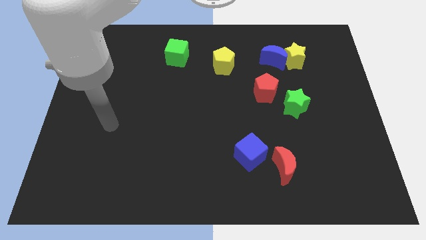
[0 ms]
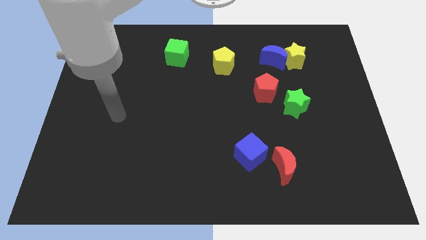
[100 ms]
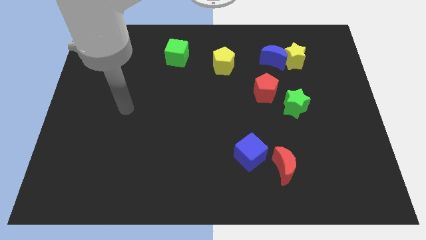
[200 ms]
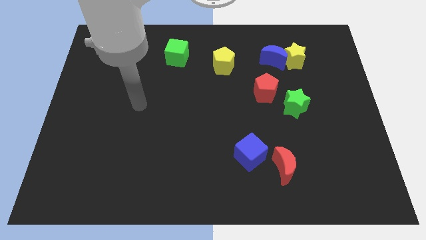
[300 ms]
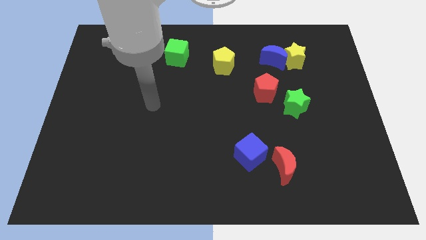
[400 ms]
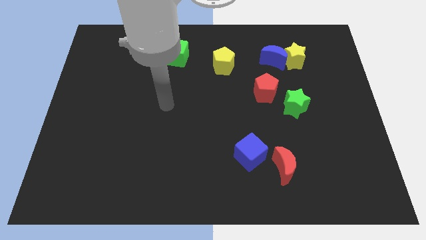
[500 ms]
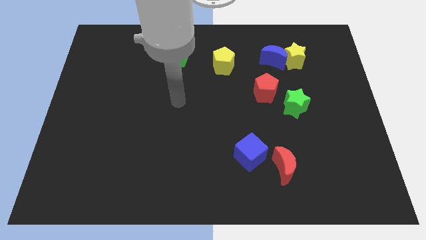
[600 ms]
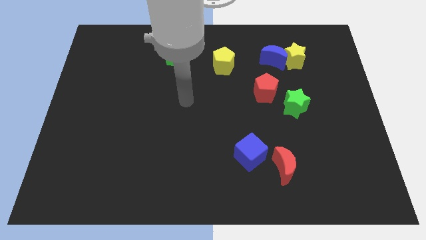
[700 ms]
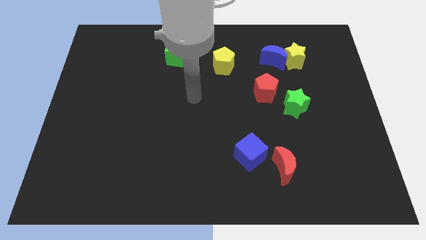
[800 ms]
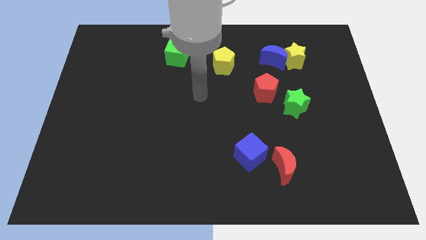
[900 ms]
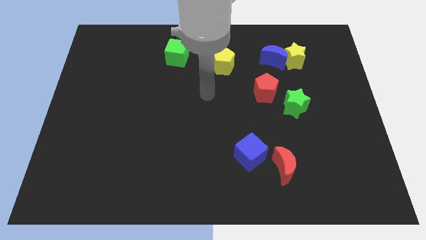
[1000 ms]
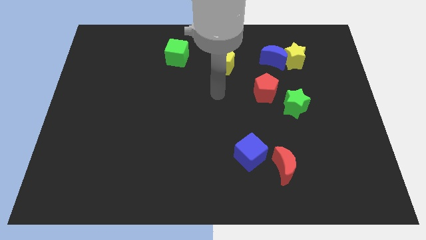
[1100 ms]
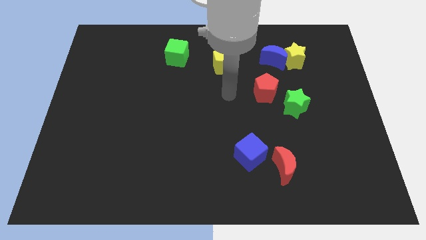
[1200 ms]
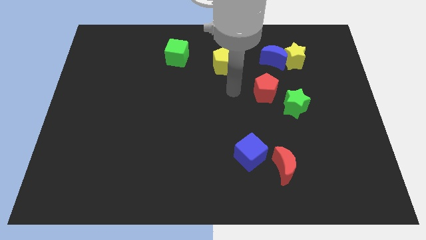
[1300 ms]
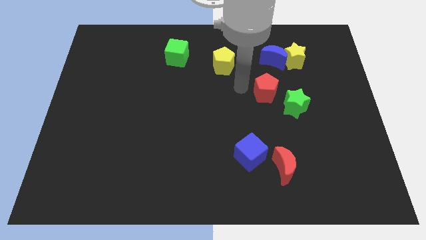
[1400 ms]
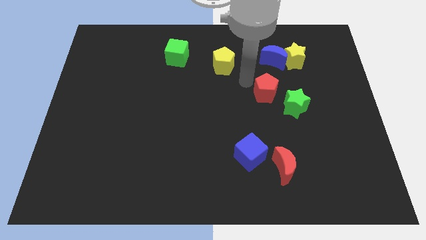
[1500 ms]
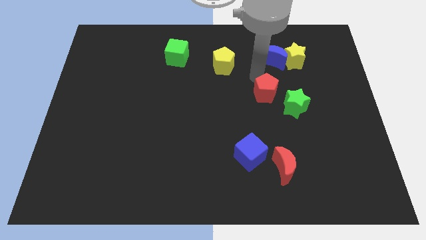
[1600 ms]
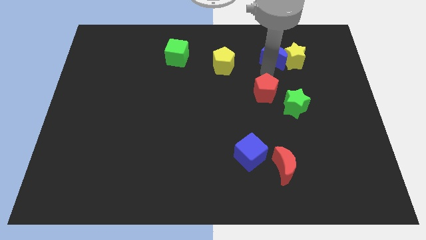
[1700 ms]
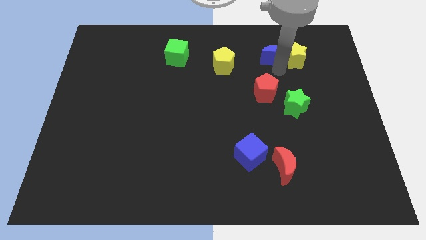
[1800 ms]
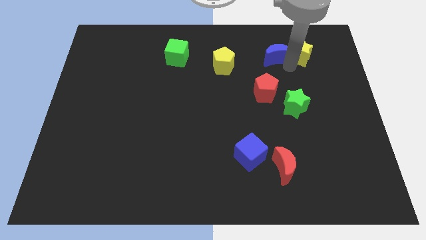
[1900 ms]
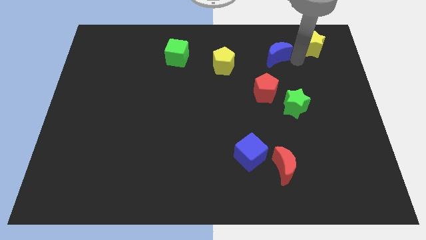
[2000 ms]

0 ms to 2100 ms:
pull the blue moon apart from the yellow star

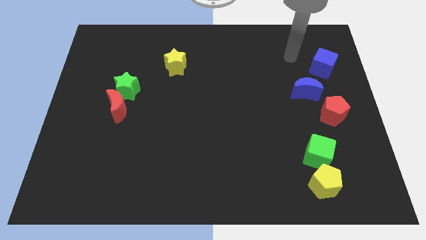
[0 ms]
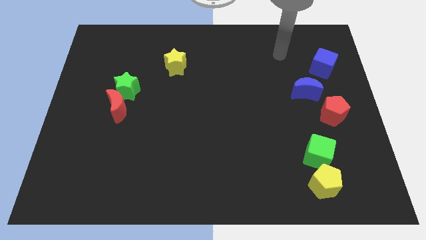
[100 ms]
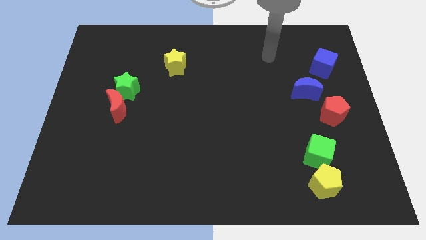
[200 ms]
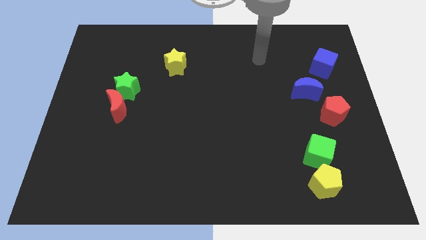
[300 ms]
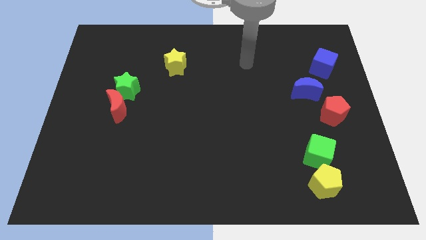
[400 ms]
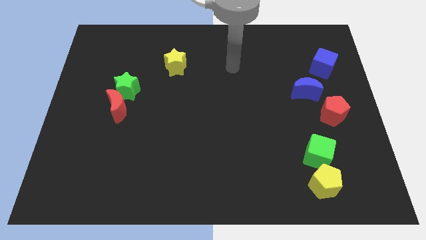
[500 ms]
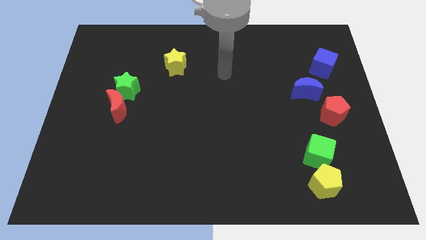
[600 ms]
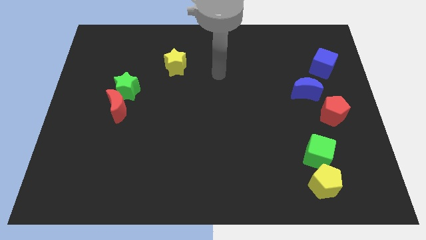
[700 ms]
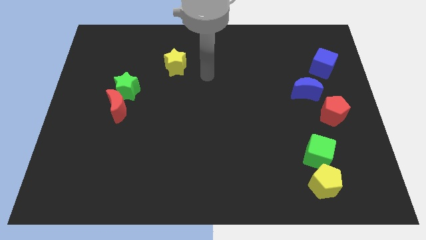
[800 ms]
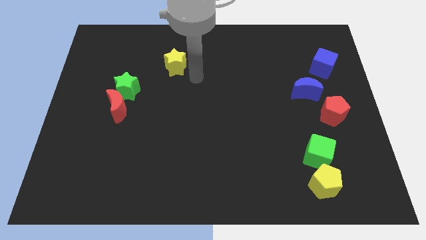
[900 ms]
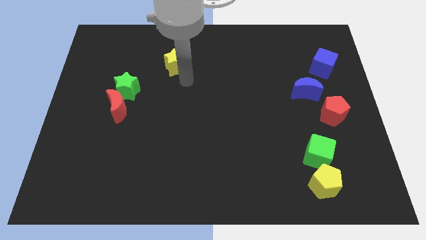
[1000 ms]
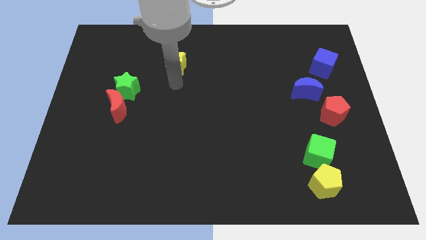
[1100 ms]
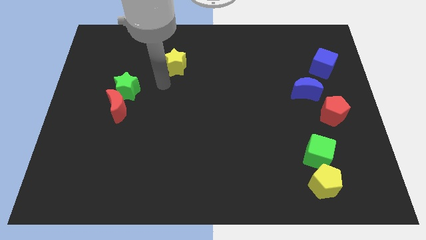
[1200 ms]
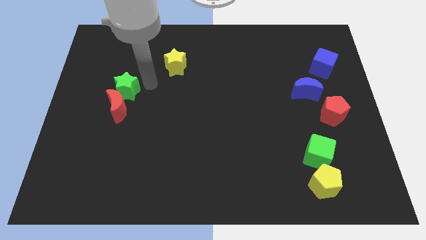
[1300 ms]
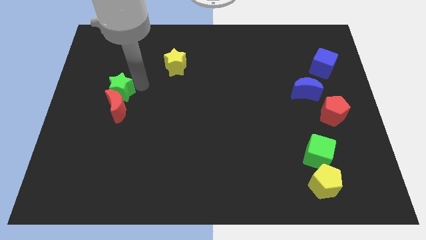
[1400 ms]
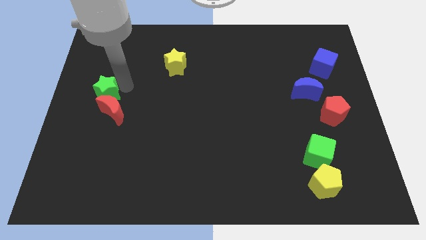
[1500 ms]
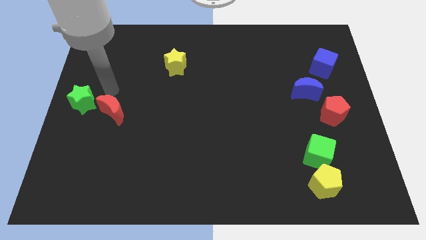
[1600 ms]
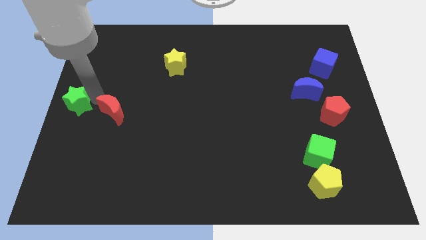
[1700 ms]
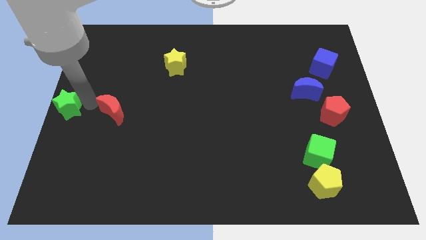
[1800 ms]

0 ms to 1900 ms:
move the red moon away from the green star

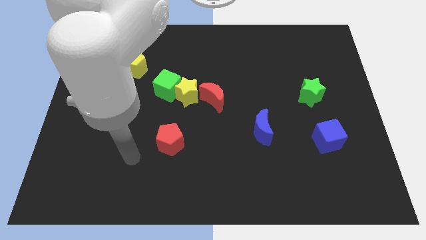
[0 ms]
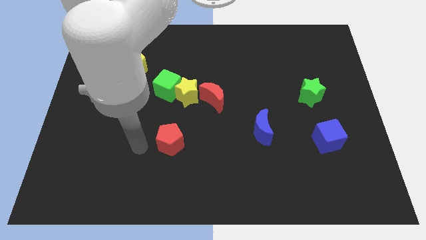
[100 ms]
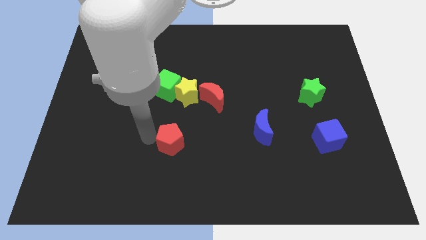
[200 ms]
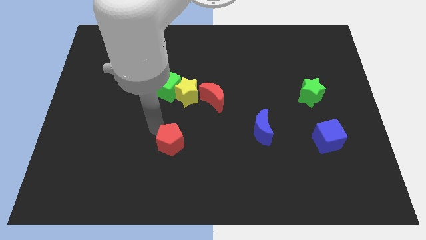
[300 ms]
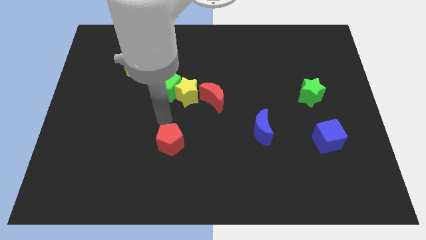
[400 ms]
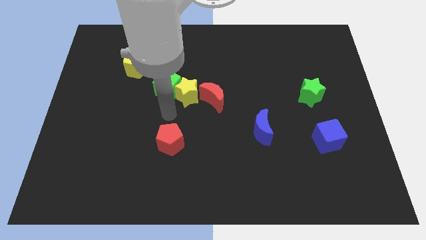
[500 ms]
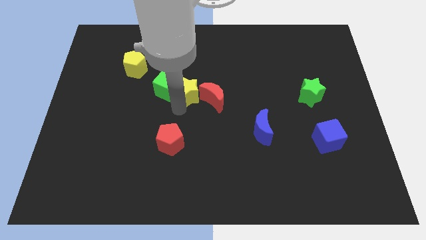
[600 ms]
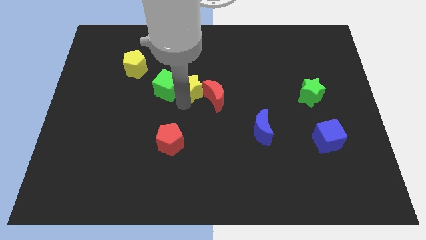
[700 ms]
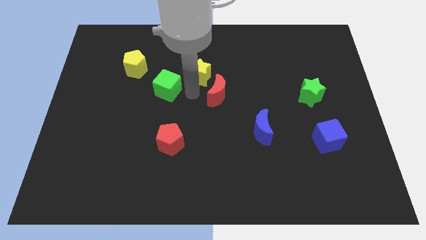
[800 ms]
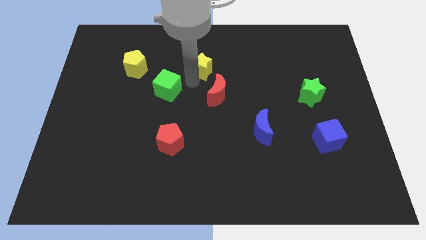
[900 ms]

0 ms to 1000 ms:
pull the green cube apart from the yellow star

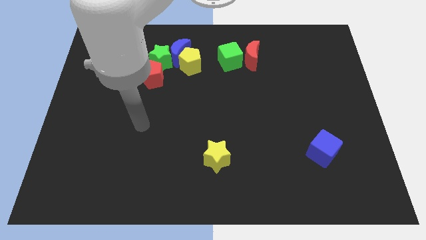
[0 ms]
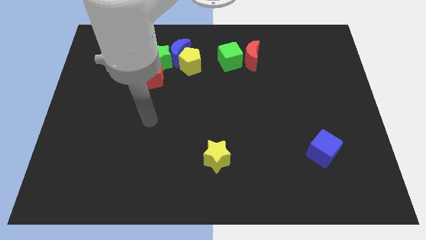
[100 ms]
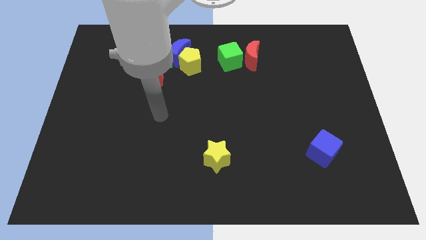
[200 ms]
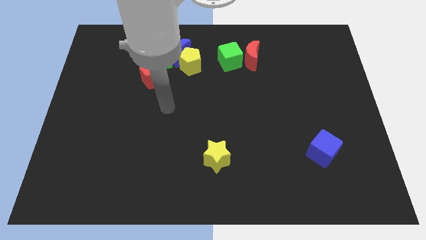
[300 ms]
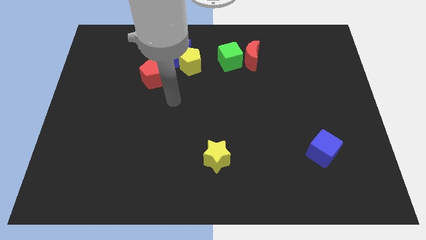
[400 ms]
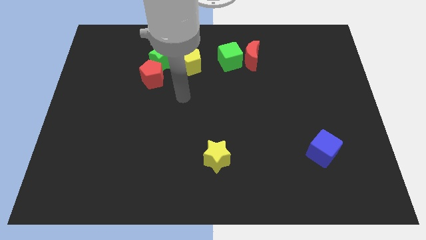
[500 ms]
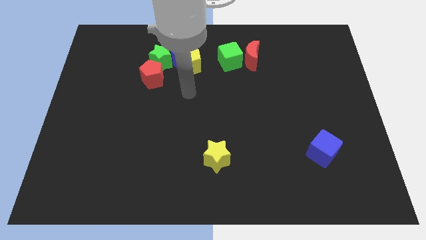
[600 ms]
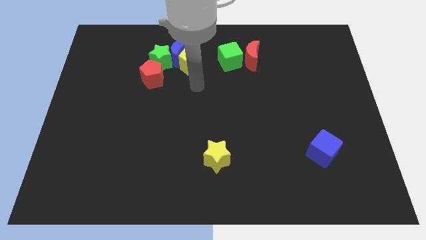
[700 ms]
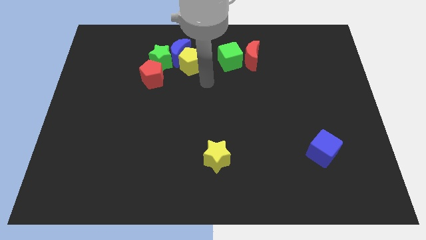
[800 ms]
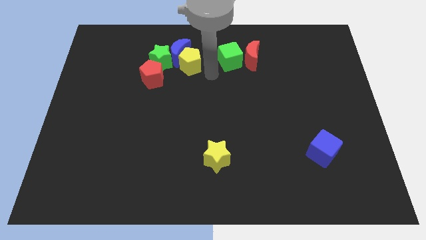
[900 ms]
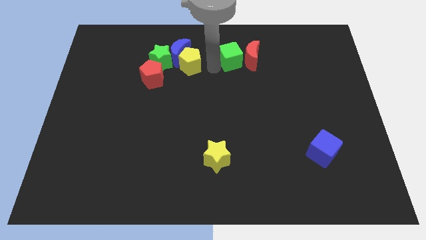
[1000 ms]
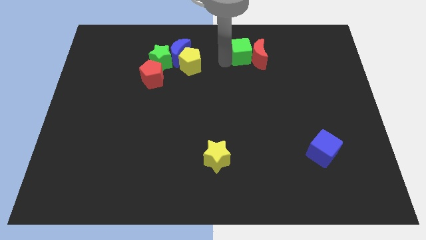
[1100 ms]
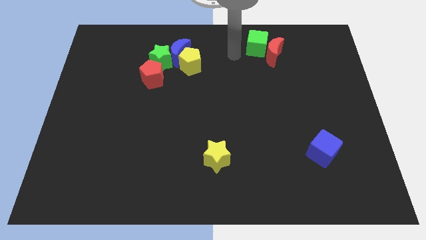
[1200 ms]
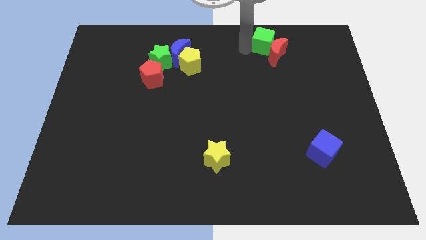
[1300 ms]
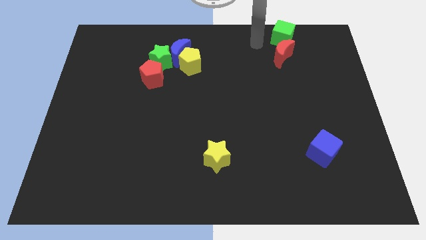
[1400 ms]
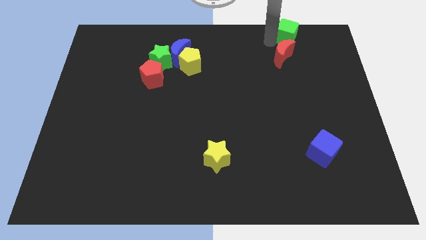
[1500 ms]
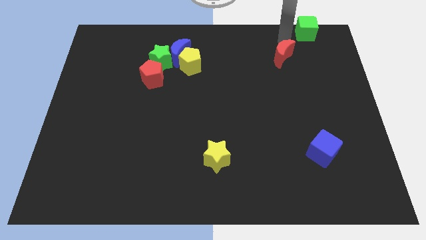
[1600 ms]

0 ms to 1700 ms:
move the red moon away from the green cube

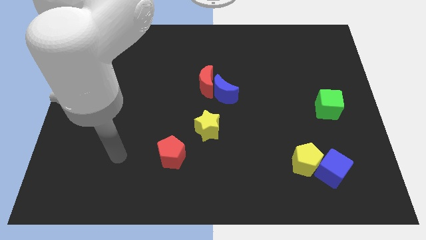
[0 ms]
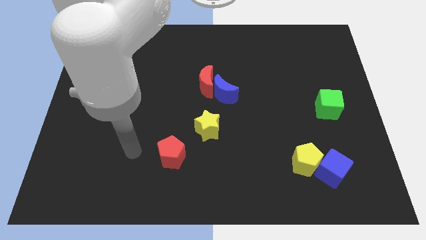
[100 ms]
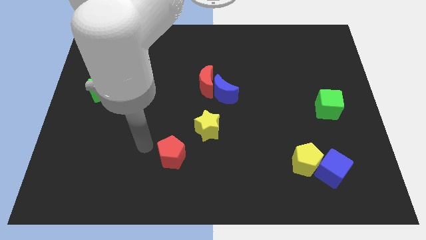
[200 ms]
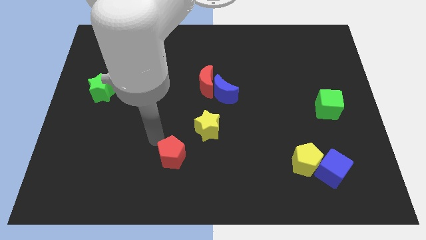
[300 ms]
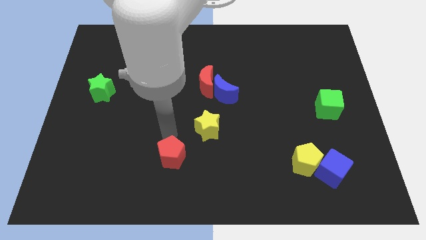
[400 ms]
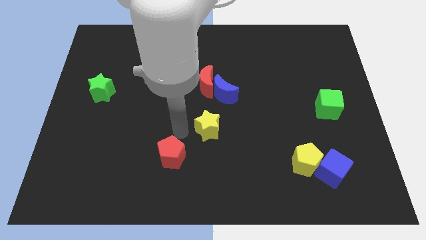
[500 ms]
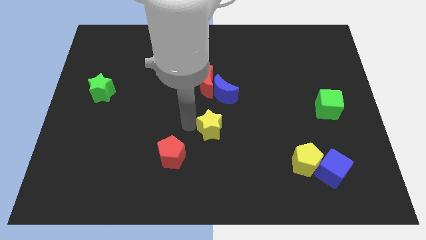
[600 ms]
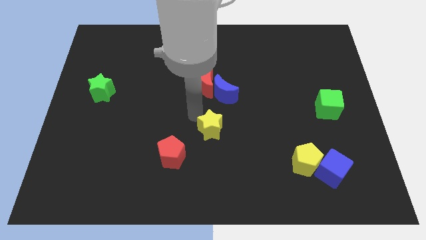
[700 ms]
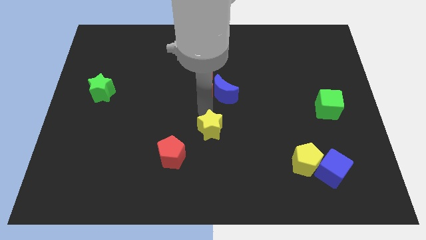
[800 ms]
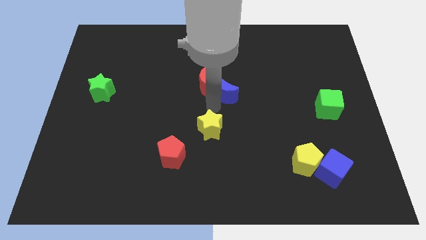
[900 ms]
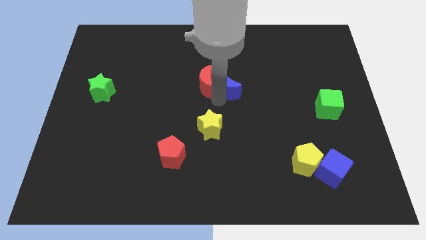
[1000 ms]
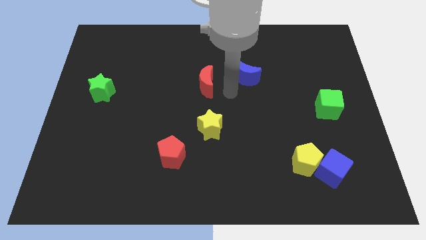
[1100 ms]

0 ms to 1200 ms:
pull the red moon apart from the blue moon

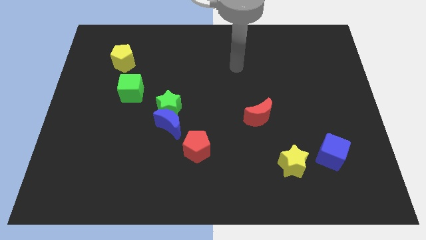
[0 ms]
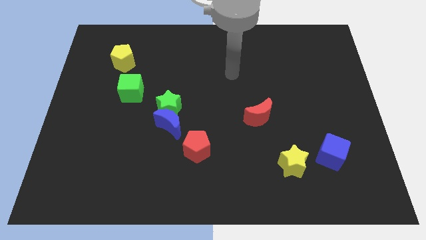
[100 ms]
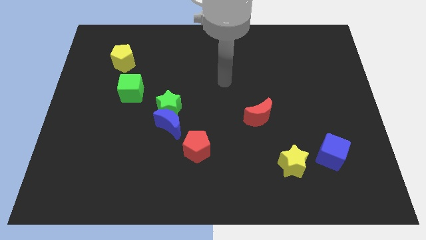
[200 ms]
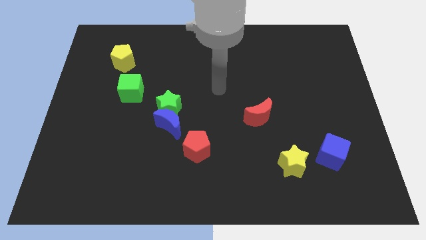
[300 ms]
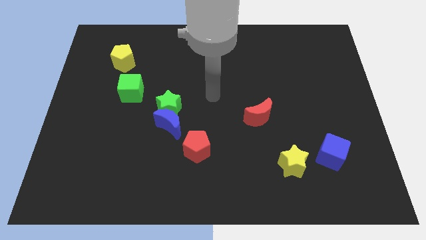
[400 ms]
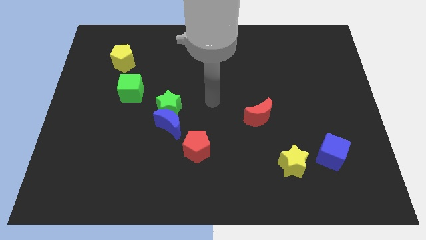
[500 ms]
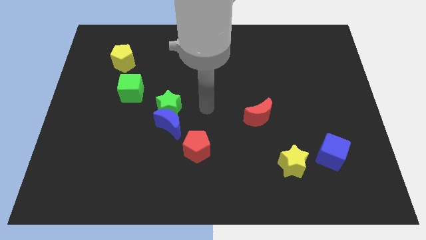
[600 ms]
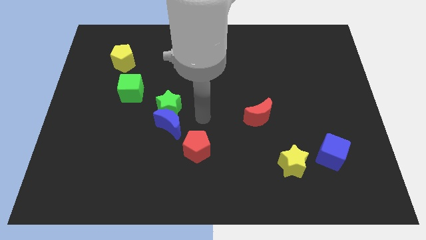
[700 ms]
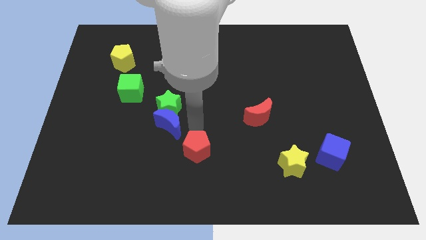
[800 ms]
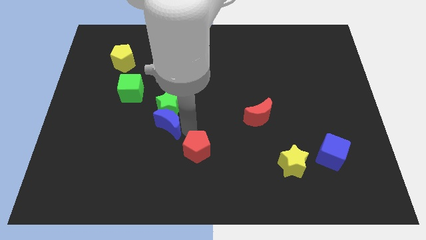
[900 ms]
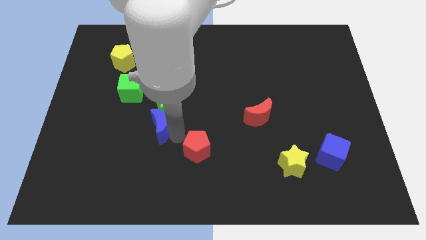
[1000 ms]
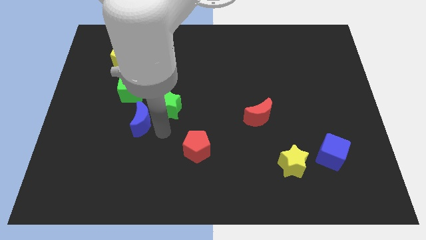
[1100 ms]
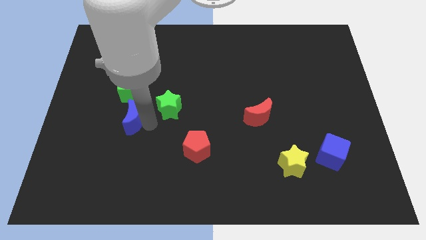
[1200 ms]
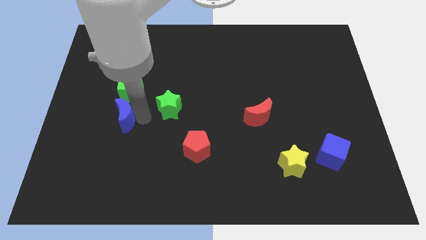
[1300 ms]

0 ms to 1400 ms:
move the green star away from the blue moon
